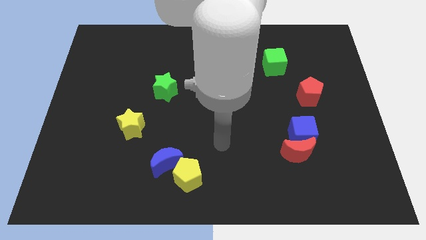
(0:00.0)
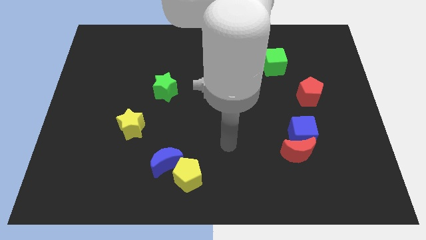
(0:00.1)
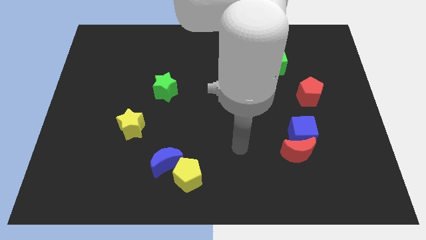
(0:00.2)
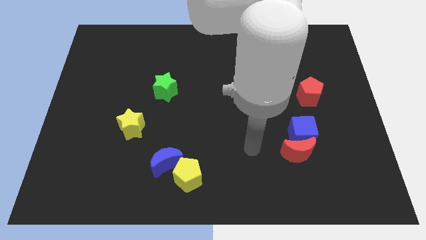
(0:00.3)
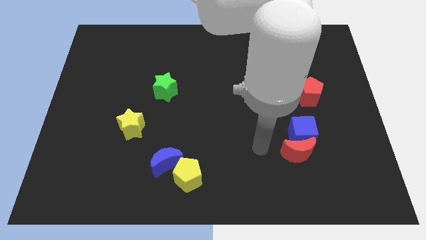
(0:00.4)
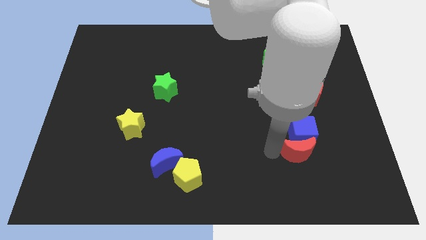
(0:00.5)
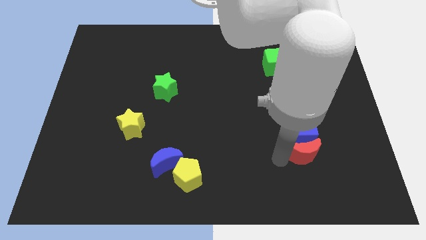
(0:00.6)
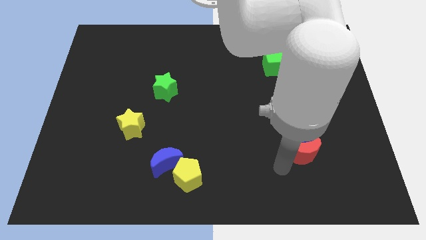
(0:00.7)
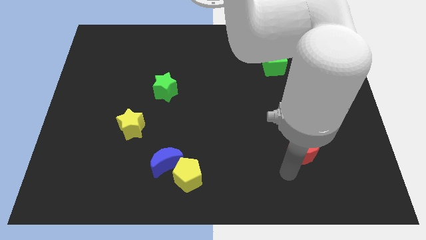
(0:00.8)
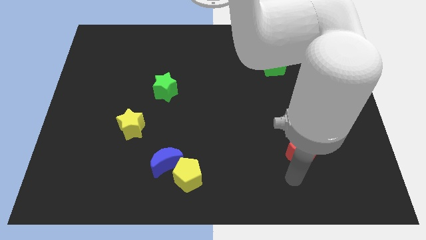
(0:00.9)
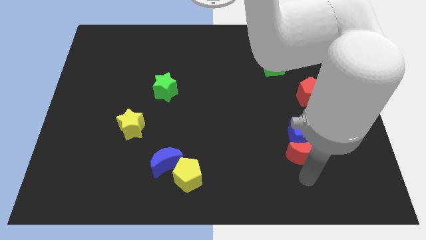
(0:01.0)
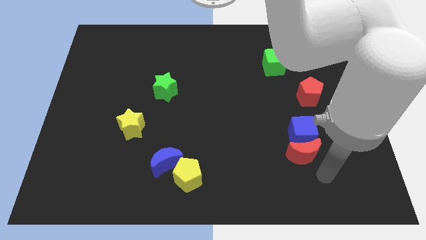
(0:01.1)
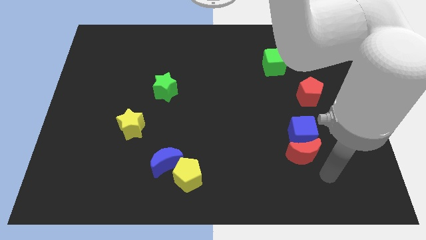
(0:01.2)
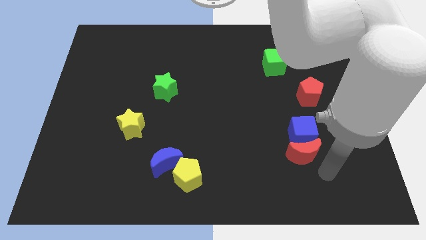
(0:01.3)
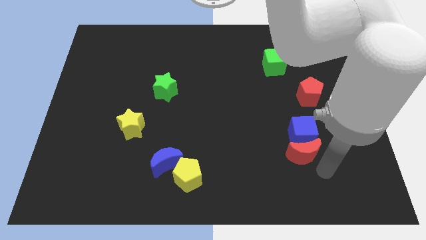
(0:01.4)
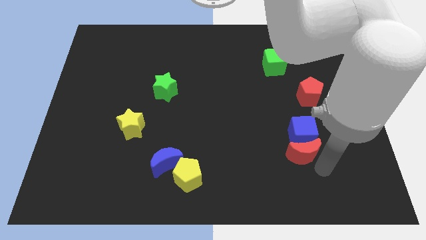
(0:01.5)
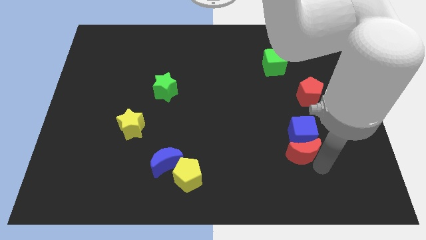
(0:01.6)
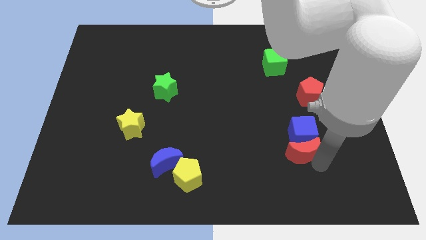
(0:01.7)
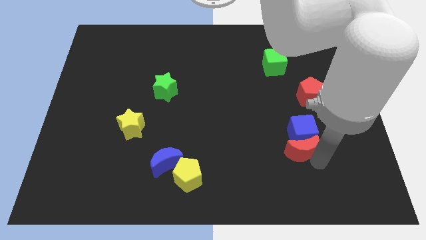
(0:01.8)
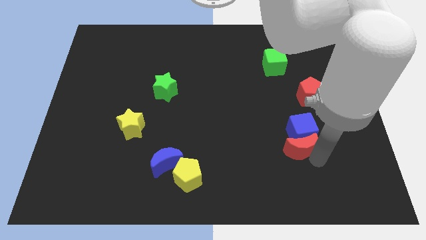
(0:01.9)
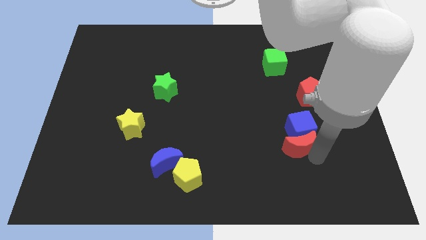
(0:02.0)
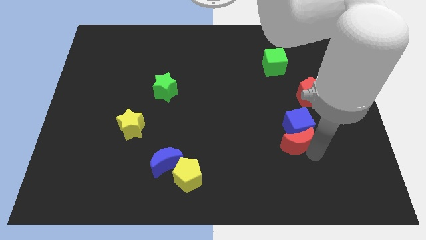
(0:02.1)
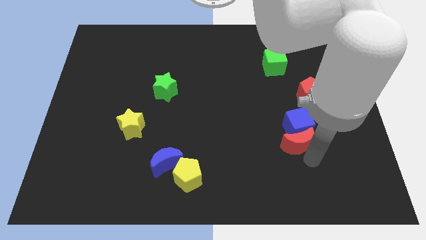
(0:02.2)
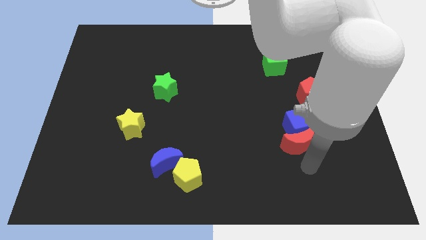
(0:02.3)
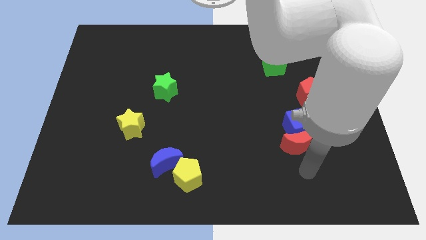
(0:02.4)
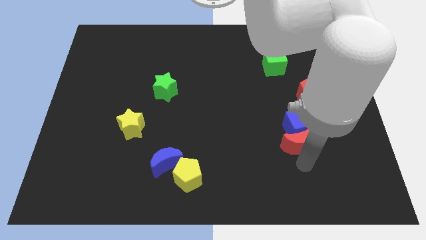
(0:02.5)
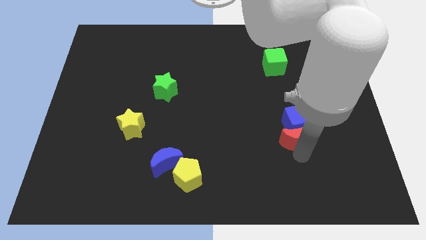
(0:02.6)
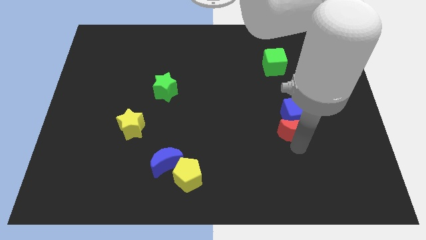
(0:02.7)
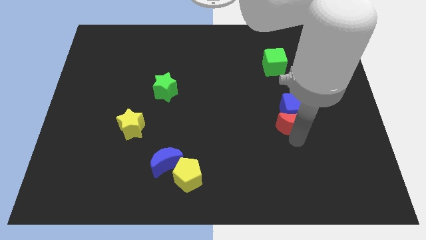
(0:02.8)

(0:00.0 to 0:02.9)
push the red moon a little upwards

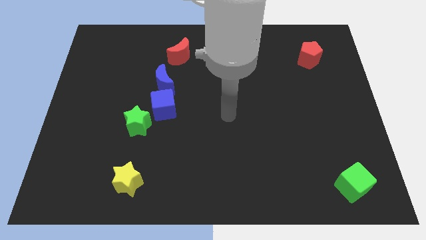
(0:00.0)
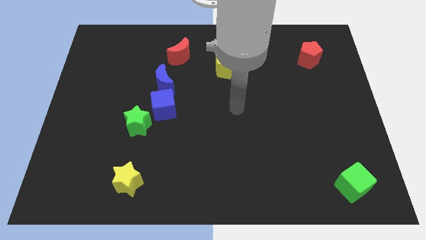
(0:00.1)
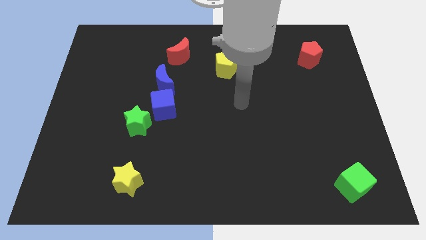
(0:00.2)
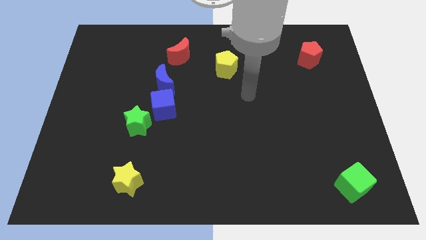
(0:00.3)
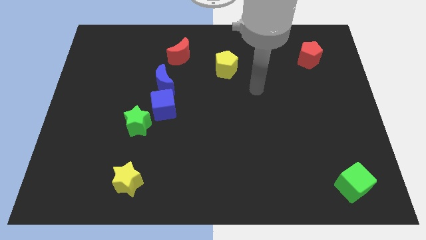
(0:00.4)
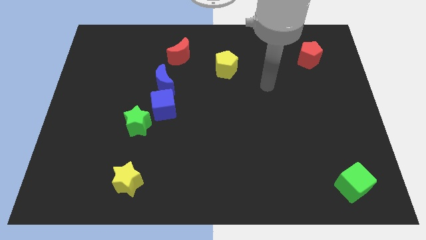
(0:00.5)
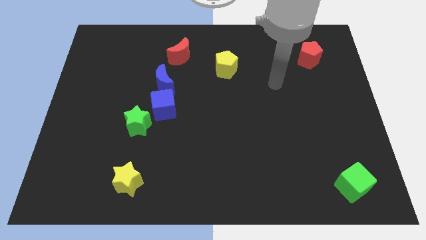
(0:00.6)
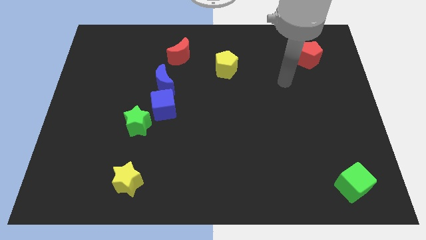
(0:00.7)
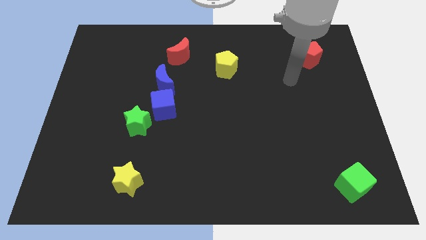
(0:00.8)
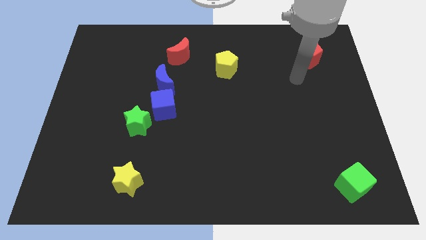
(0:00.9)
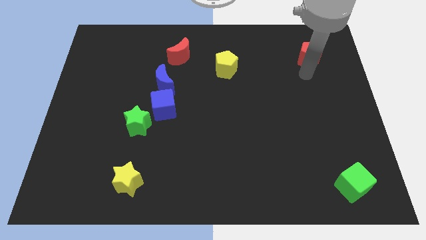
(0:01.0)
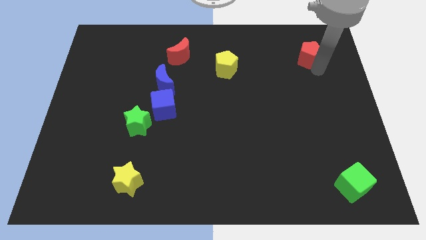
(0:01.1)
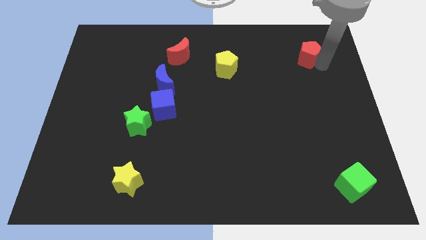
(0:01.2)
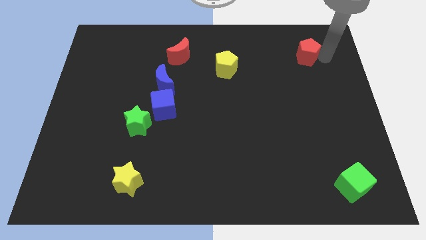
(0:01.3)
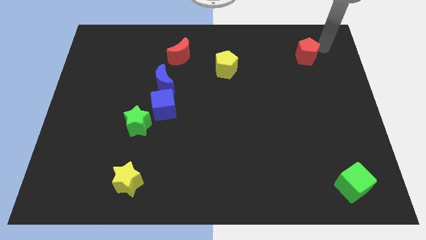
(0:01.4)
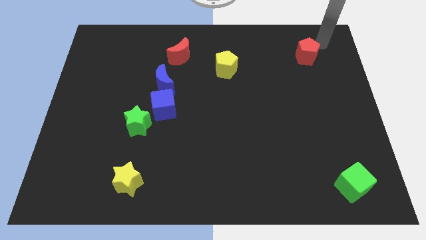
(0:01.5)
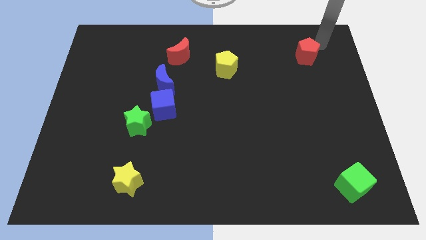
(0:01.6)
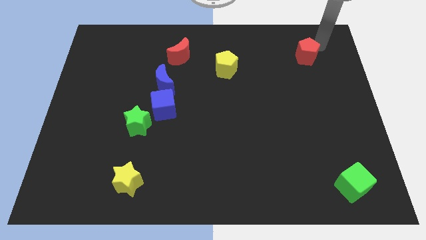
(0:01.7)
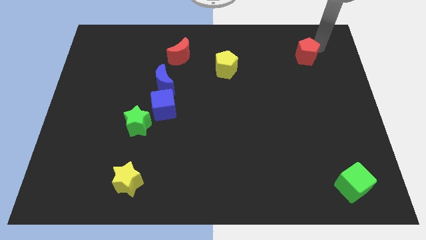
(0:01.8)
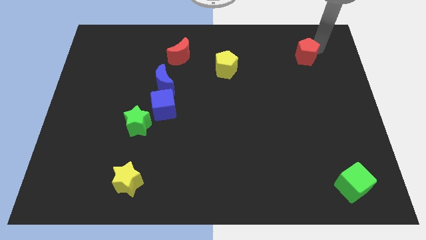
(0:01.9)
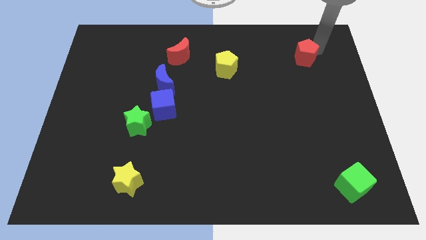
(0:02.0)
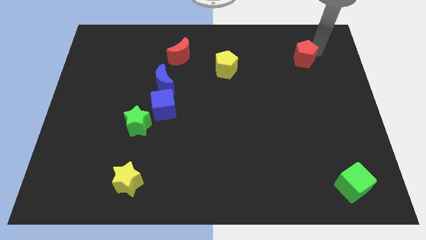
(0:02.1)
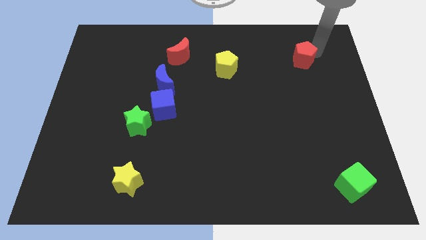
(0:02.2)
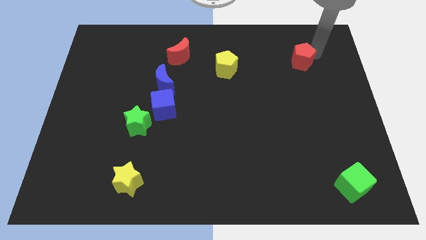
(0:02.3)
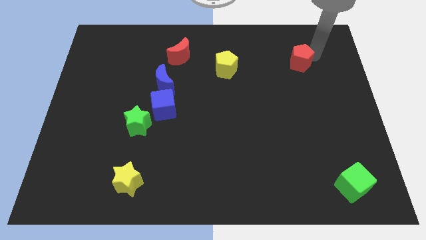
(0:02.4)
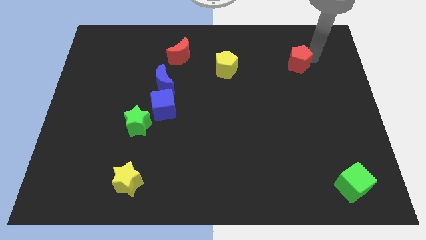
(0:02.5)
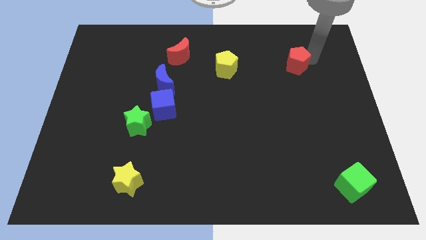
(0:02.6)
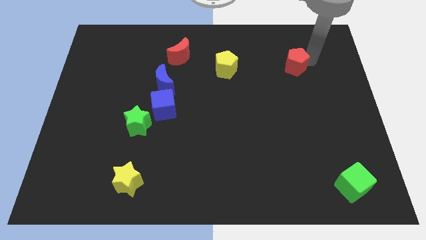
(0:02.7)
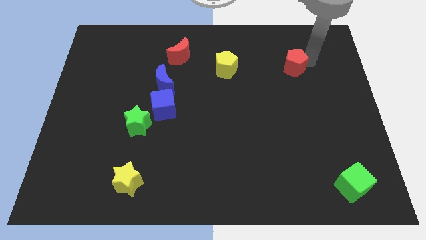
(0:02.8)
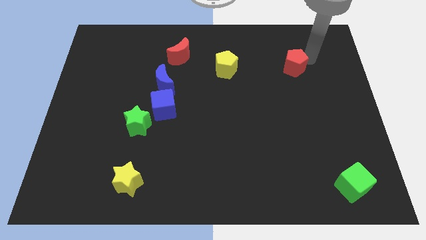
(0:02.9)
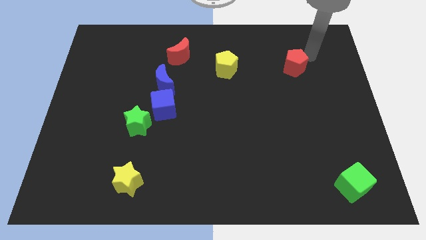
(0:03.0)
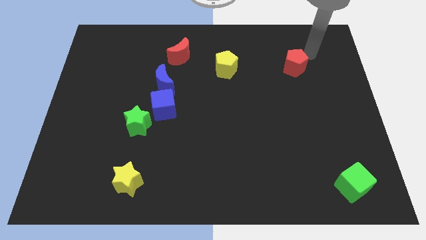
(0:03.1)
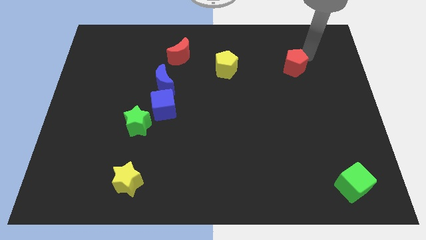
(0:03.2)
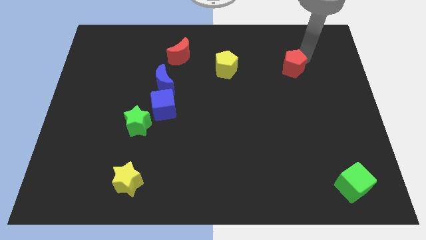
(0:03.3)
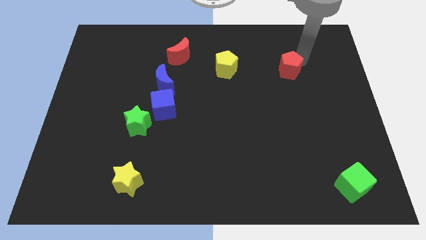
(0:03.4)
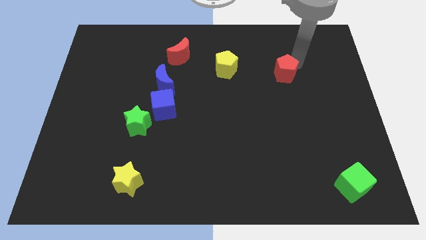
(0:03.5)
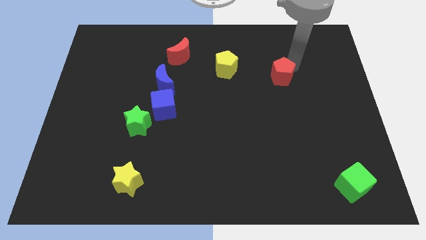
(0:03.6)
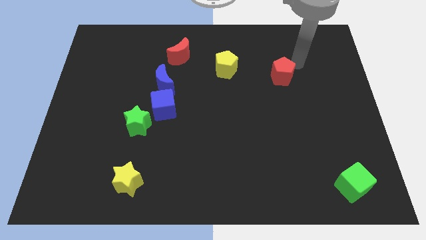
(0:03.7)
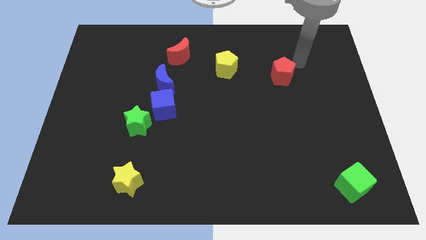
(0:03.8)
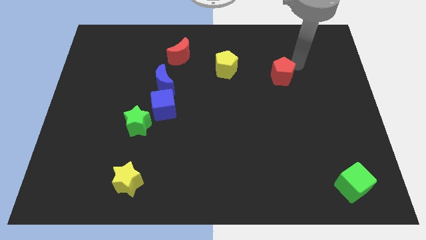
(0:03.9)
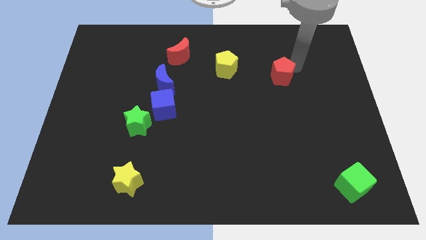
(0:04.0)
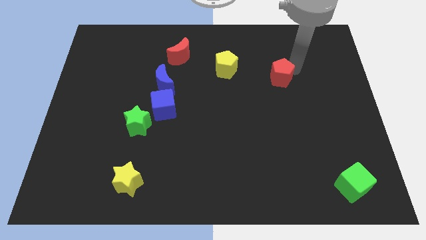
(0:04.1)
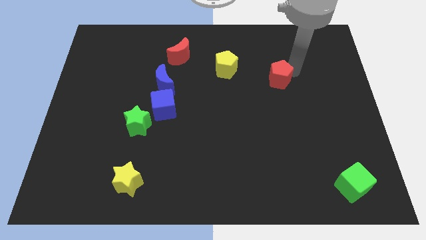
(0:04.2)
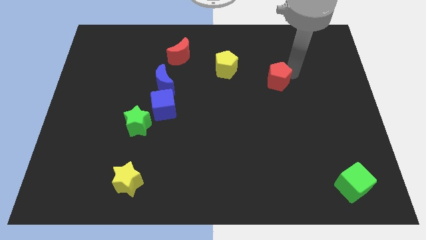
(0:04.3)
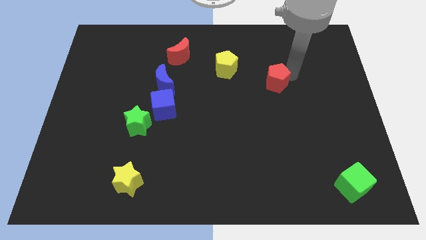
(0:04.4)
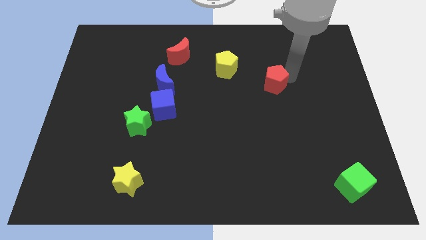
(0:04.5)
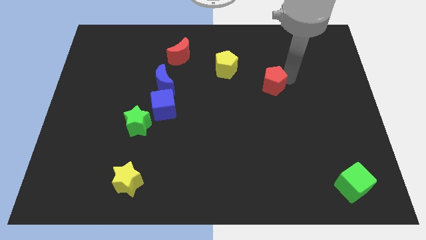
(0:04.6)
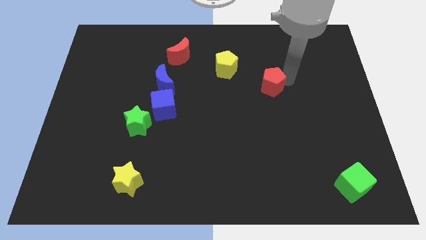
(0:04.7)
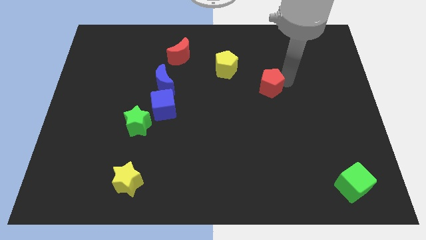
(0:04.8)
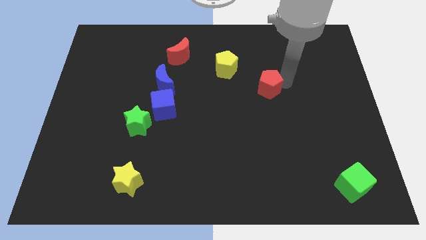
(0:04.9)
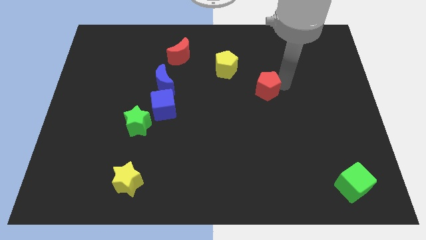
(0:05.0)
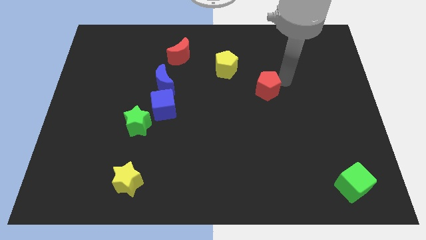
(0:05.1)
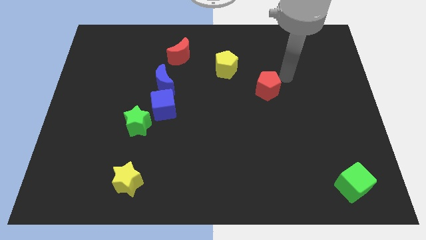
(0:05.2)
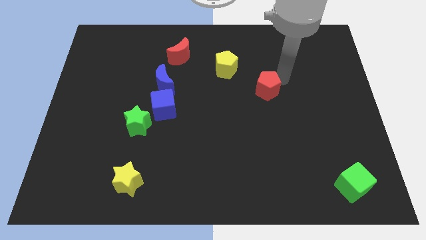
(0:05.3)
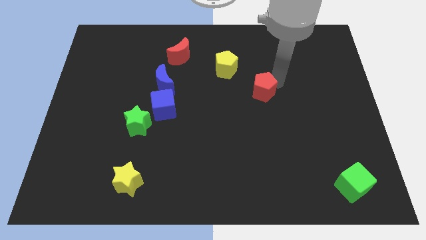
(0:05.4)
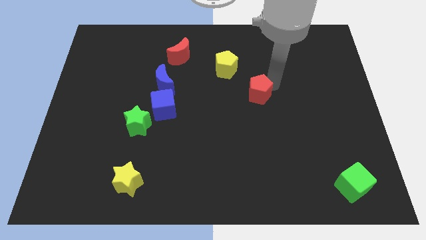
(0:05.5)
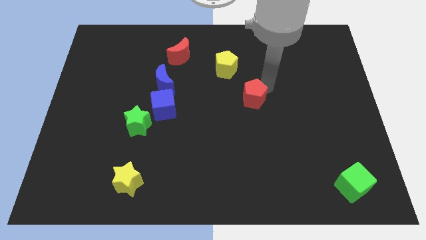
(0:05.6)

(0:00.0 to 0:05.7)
move the red pentagon down and to the left diagonally
